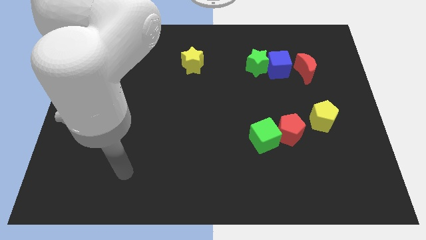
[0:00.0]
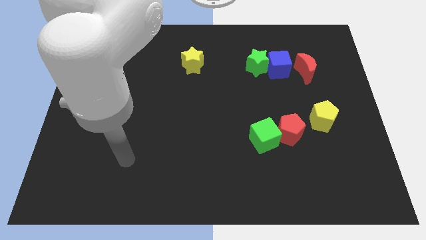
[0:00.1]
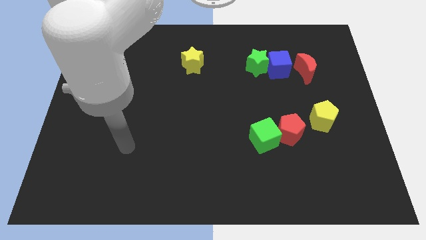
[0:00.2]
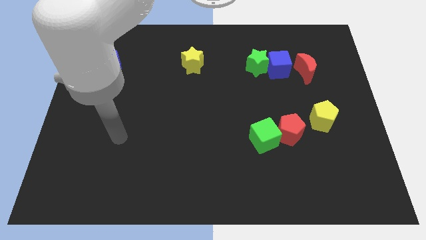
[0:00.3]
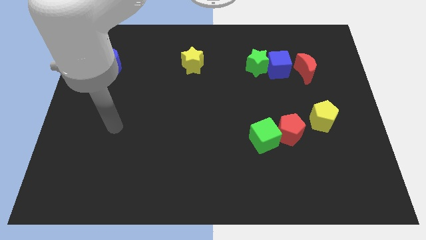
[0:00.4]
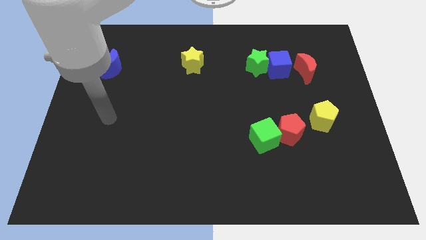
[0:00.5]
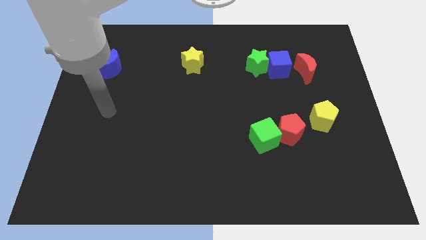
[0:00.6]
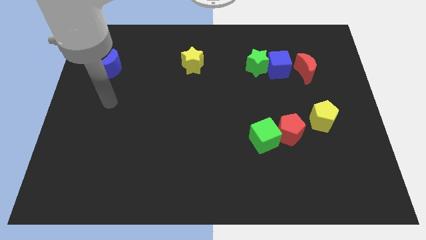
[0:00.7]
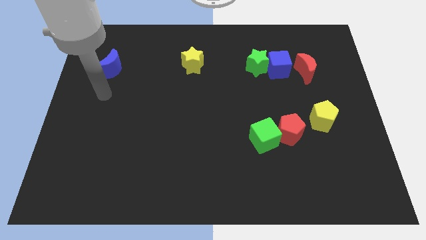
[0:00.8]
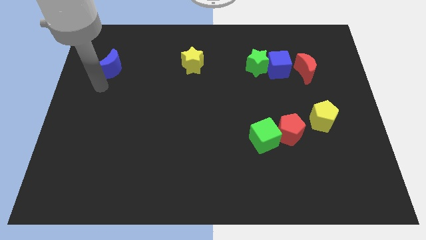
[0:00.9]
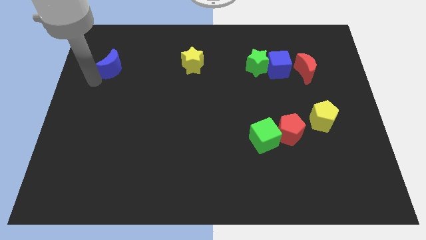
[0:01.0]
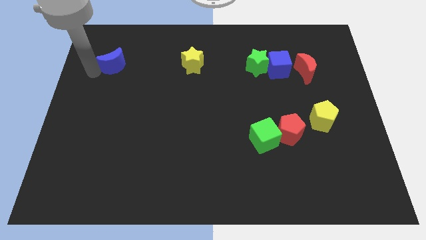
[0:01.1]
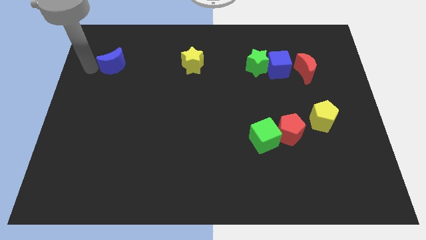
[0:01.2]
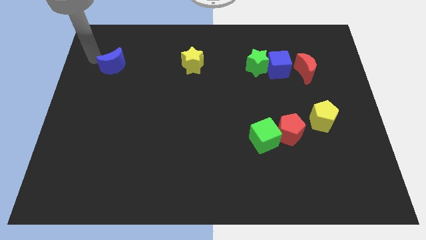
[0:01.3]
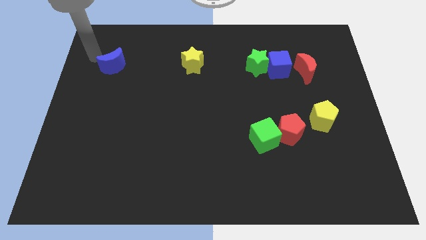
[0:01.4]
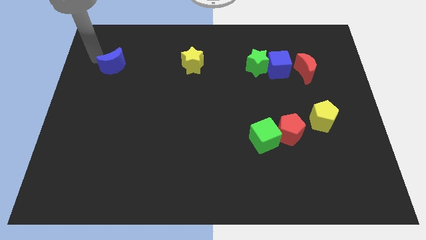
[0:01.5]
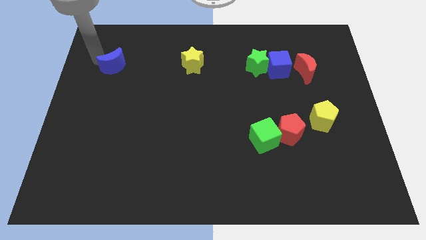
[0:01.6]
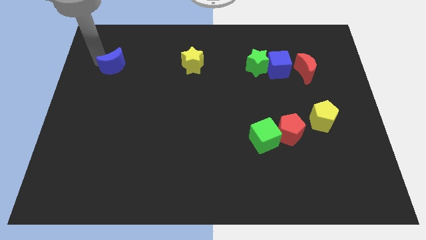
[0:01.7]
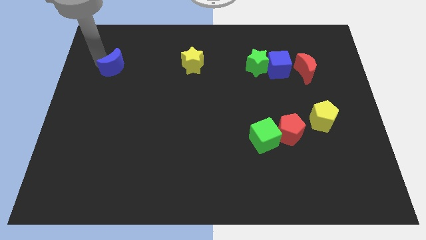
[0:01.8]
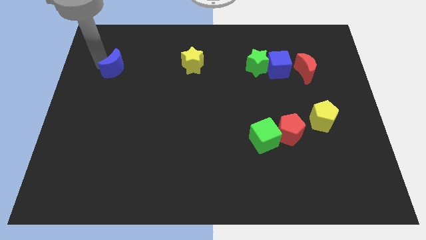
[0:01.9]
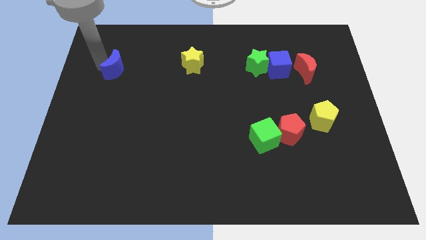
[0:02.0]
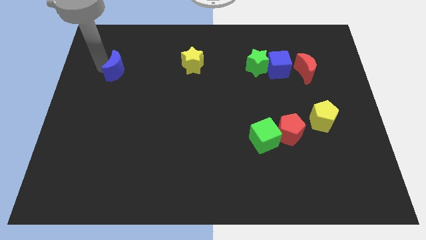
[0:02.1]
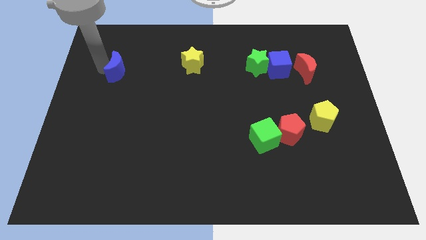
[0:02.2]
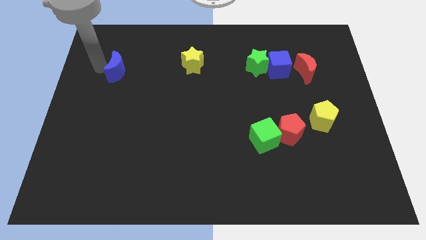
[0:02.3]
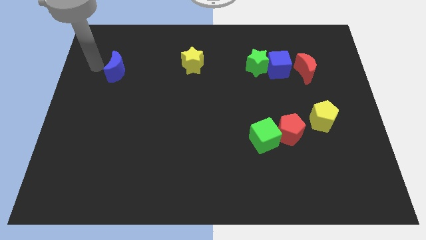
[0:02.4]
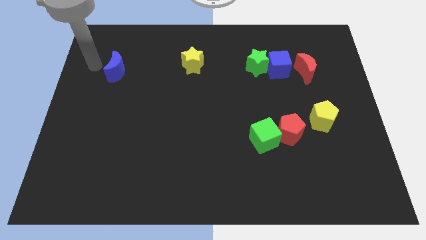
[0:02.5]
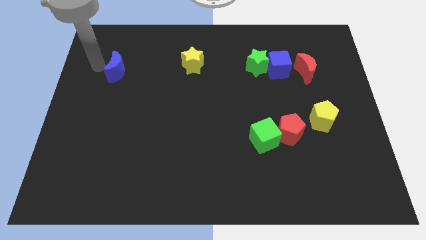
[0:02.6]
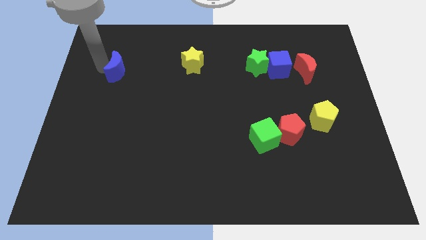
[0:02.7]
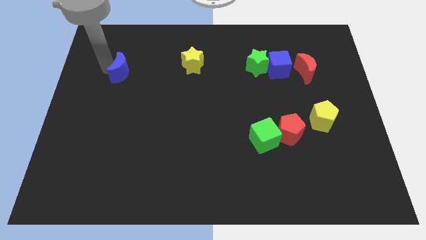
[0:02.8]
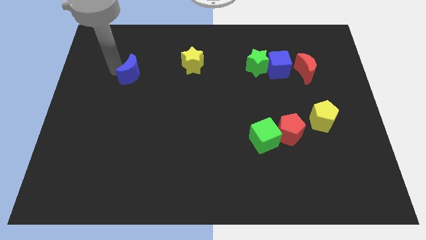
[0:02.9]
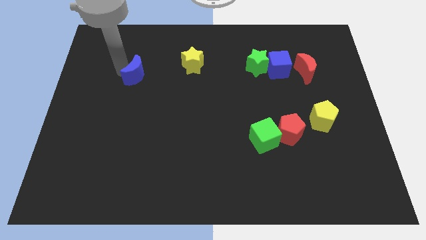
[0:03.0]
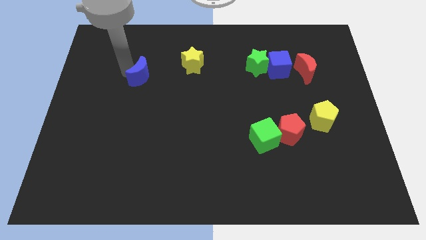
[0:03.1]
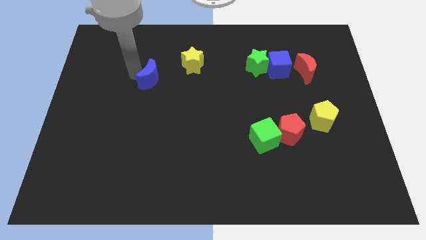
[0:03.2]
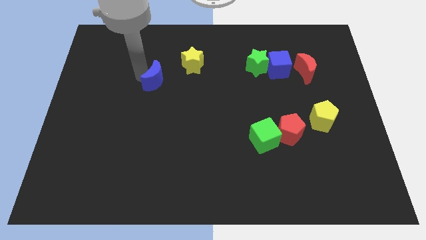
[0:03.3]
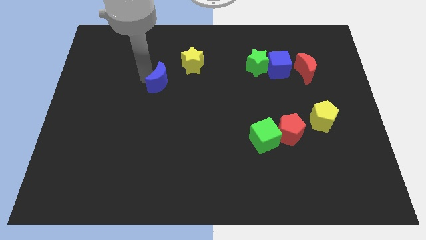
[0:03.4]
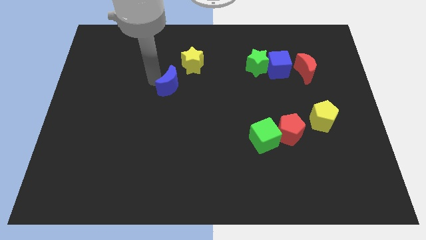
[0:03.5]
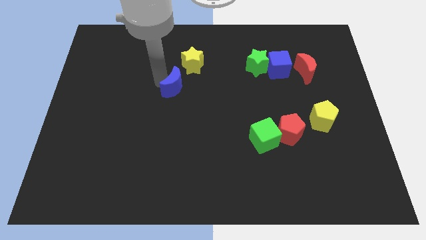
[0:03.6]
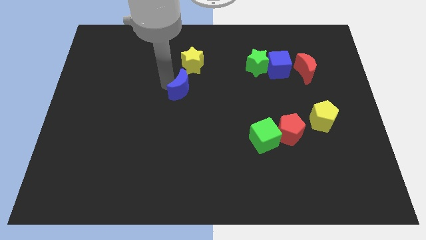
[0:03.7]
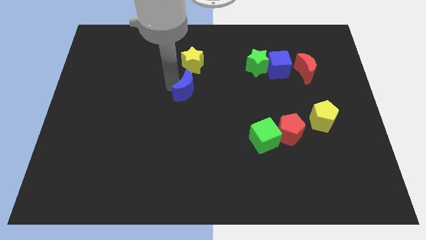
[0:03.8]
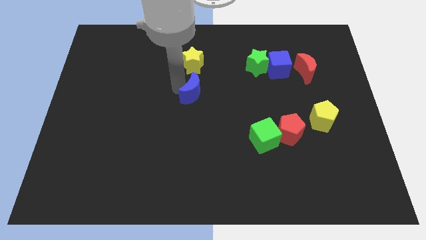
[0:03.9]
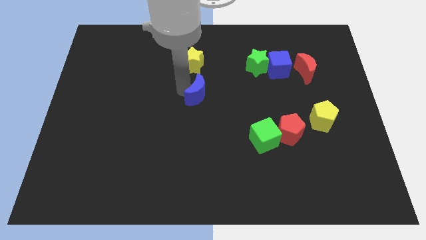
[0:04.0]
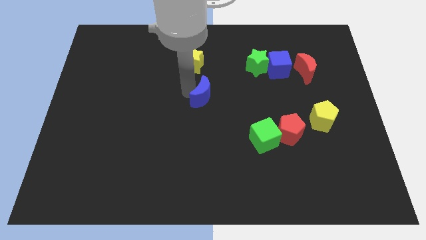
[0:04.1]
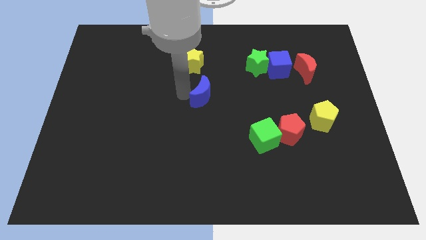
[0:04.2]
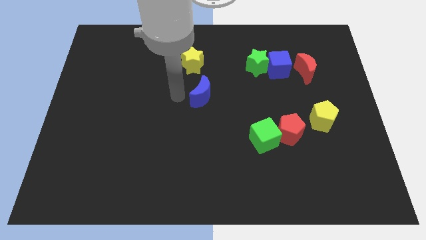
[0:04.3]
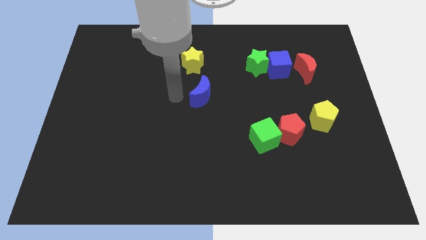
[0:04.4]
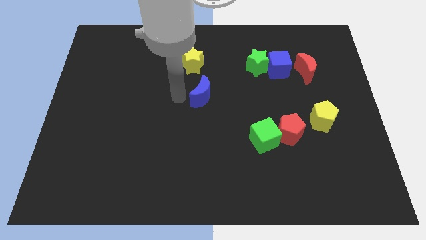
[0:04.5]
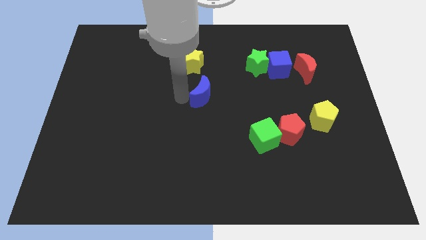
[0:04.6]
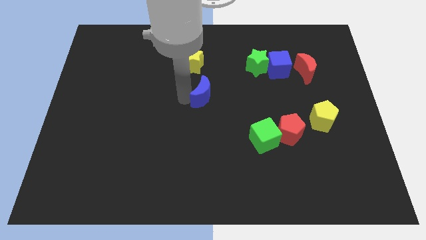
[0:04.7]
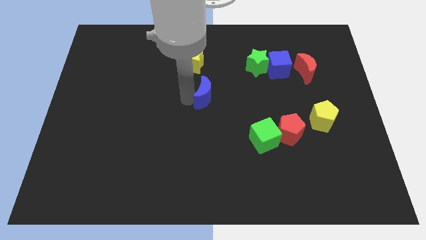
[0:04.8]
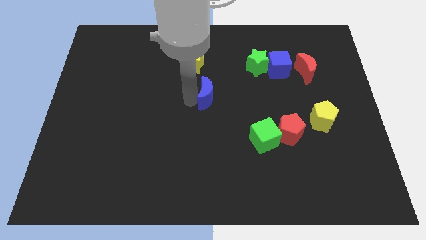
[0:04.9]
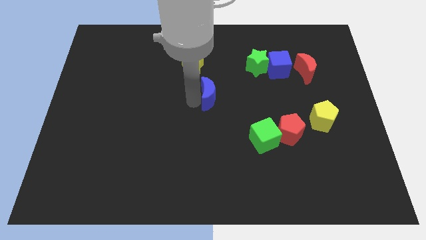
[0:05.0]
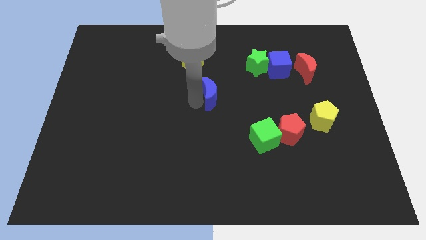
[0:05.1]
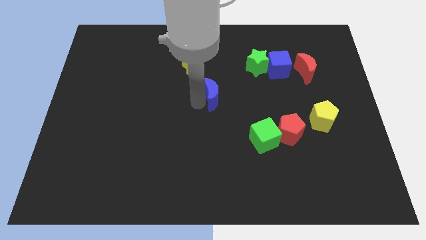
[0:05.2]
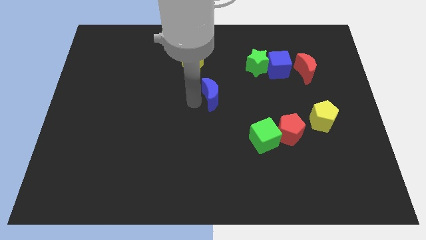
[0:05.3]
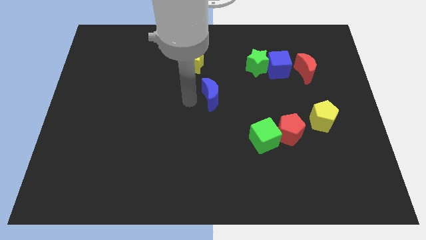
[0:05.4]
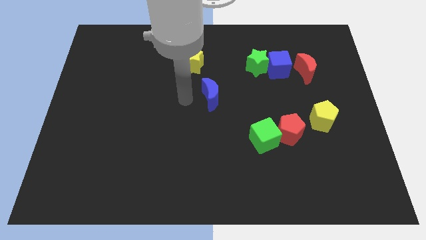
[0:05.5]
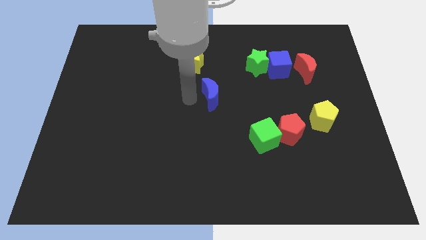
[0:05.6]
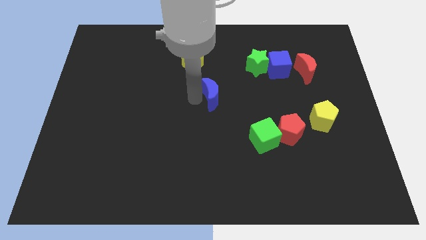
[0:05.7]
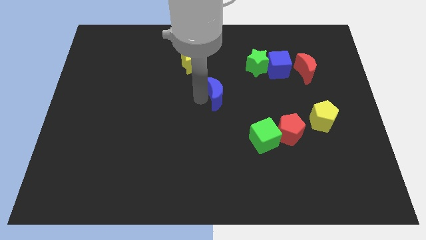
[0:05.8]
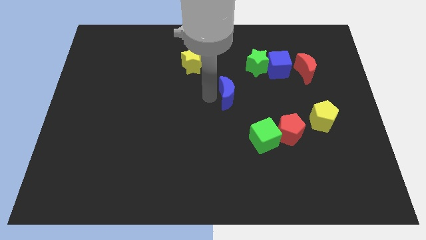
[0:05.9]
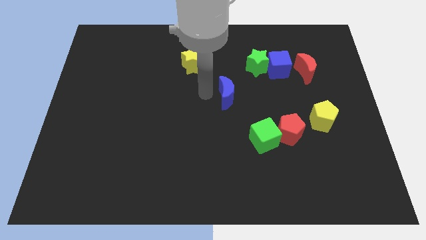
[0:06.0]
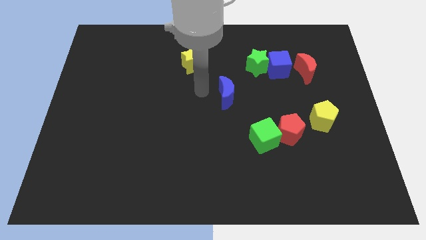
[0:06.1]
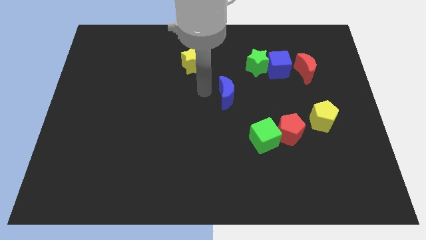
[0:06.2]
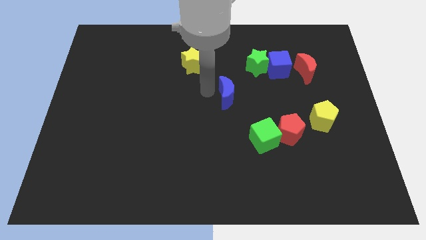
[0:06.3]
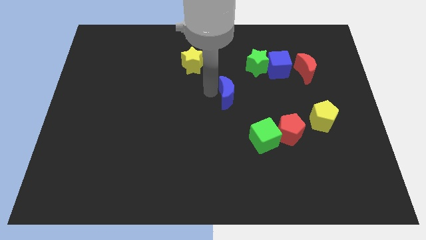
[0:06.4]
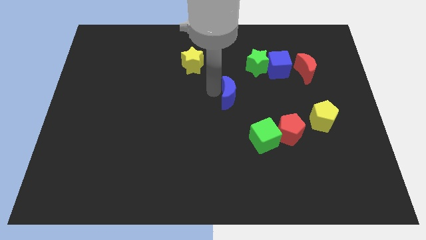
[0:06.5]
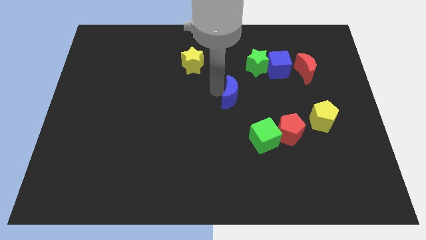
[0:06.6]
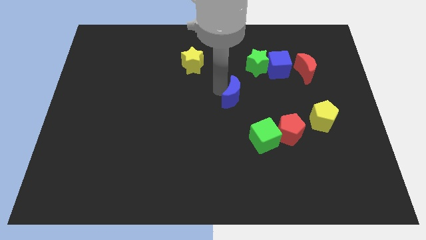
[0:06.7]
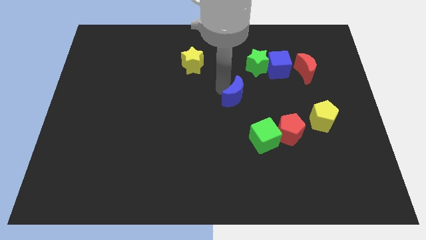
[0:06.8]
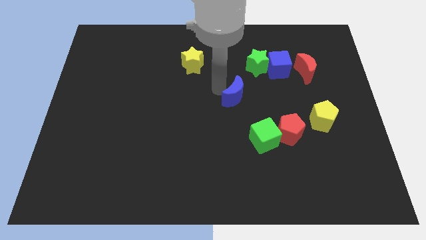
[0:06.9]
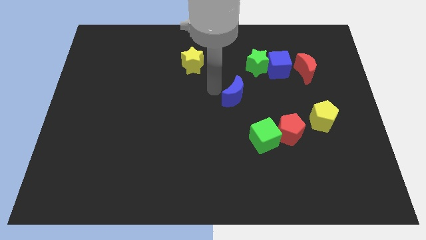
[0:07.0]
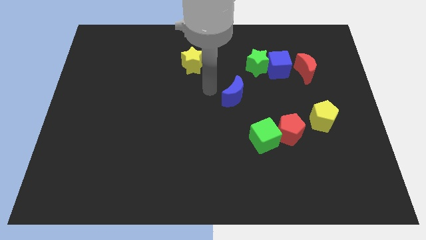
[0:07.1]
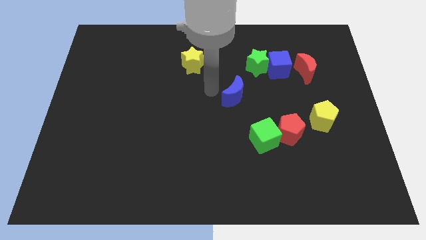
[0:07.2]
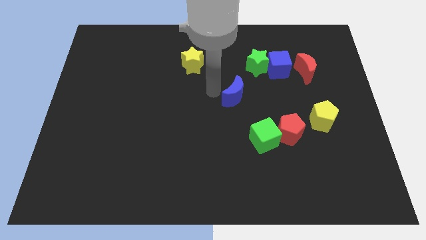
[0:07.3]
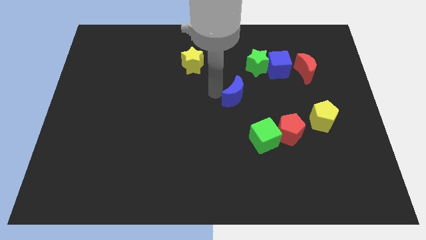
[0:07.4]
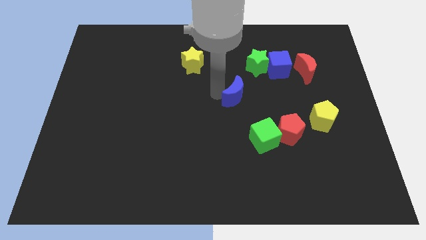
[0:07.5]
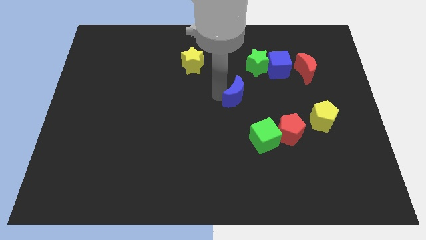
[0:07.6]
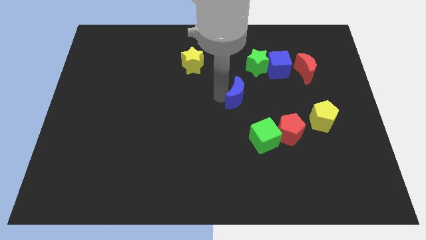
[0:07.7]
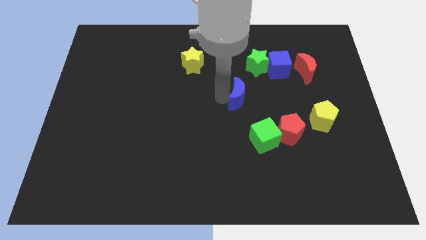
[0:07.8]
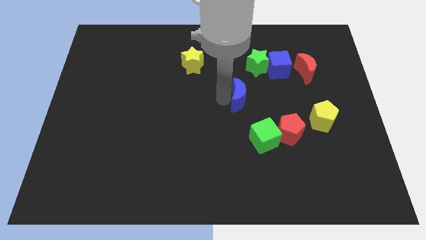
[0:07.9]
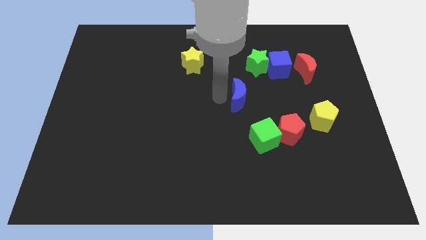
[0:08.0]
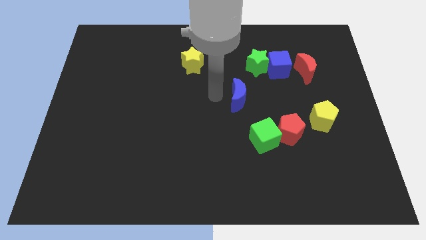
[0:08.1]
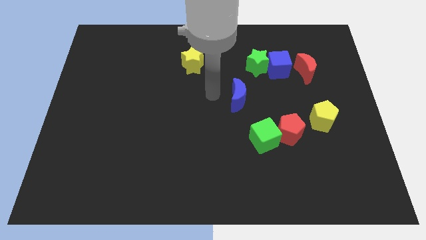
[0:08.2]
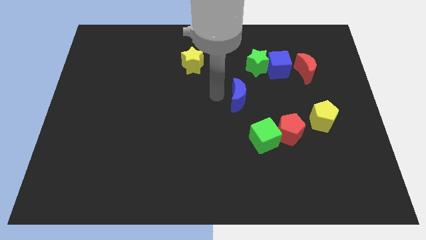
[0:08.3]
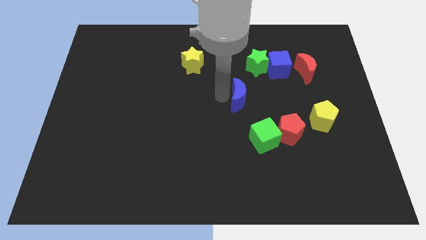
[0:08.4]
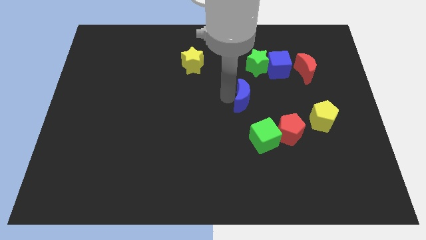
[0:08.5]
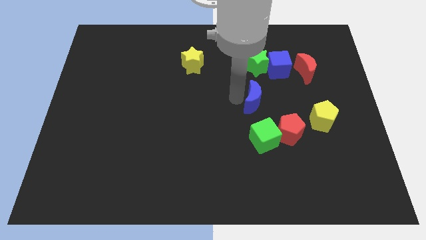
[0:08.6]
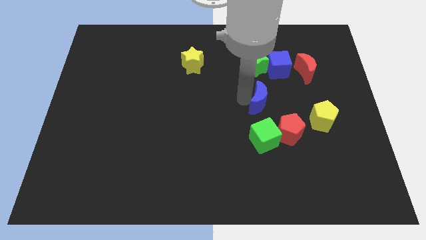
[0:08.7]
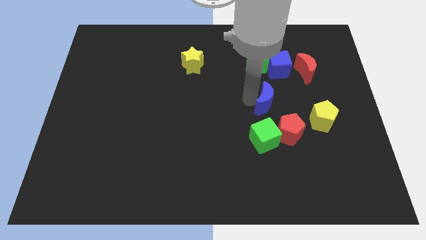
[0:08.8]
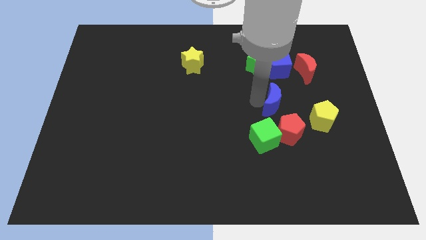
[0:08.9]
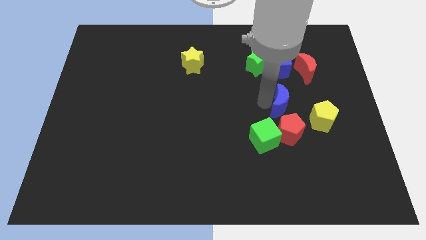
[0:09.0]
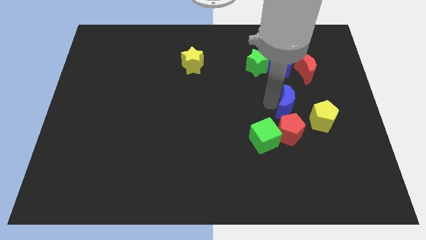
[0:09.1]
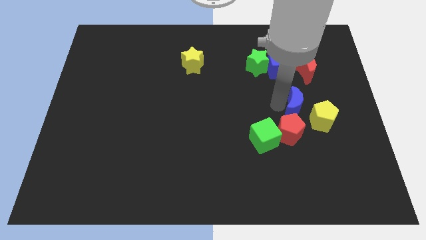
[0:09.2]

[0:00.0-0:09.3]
put the blue moon to the top right side of the red pentagon
